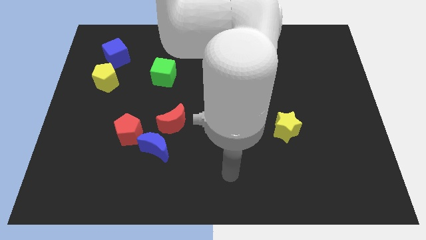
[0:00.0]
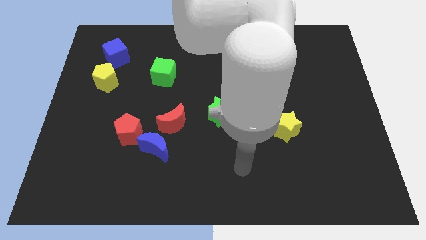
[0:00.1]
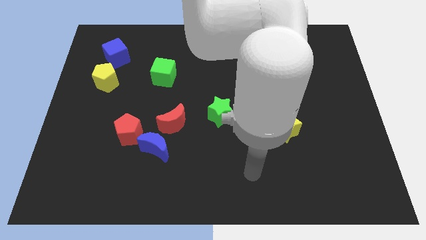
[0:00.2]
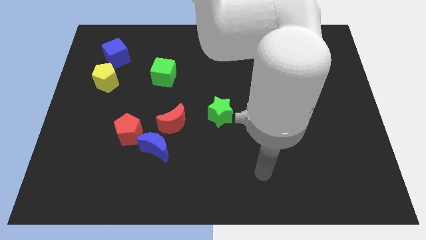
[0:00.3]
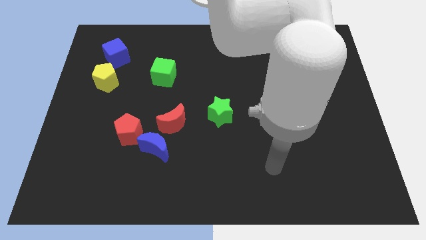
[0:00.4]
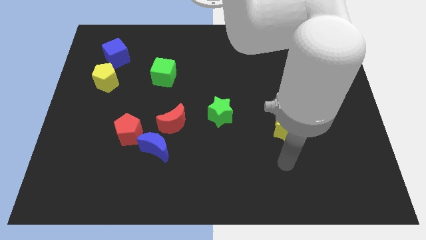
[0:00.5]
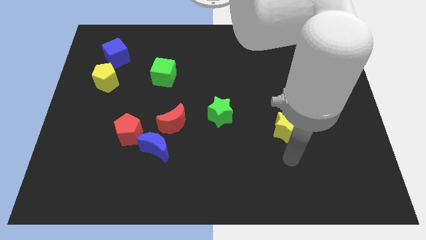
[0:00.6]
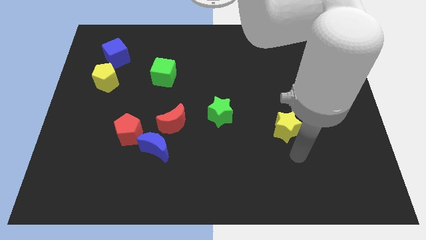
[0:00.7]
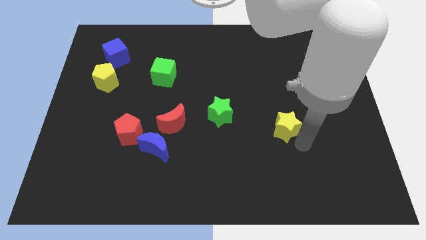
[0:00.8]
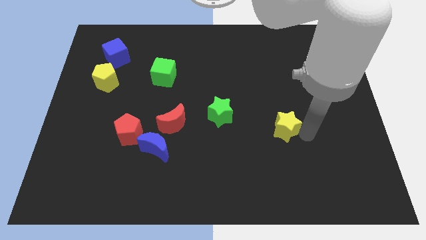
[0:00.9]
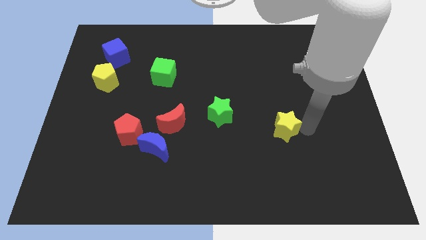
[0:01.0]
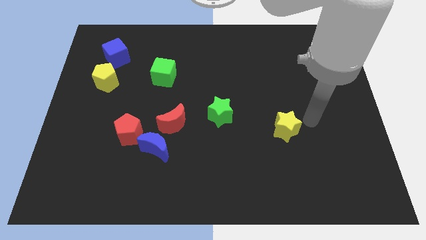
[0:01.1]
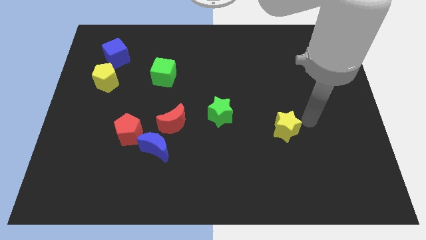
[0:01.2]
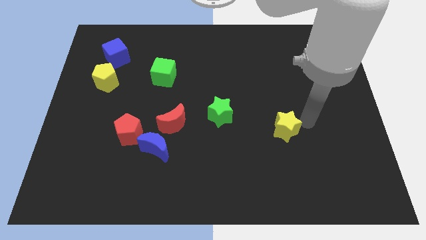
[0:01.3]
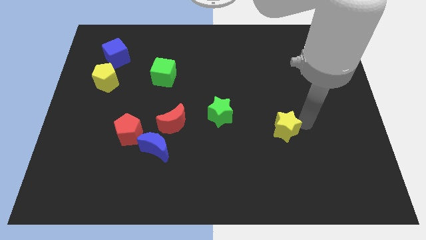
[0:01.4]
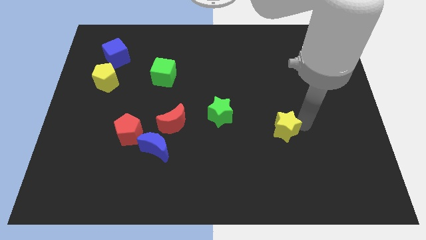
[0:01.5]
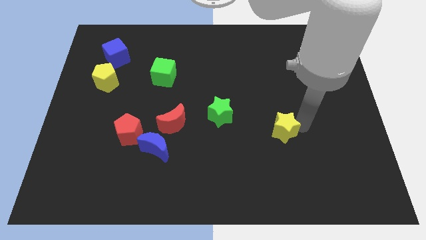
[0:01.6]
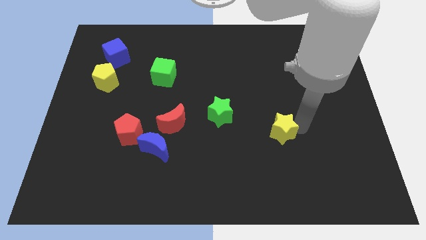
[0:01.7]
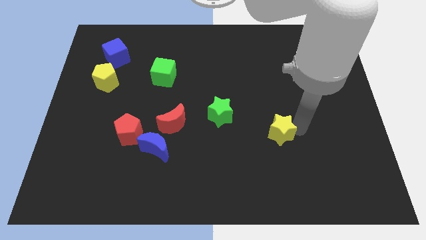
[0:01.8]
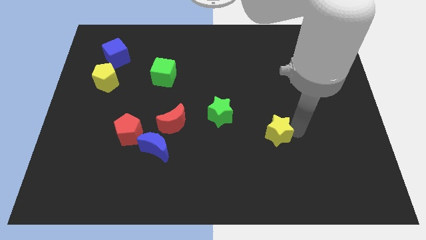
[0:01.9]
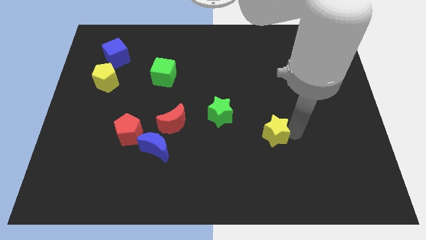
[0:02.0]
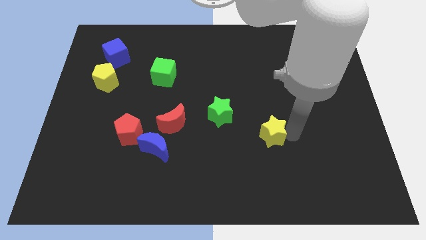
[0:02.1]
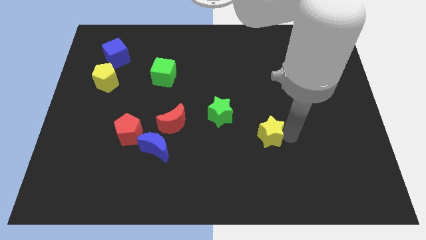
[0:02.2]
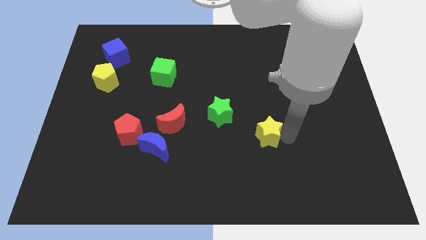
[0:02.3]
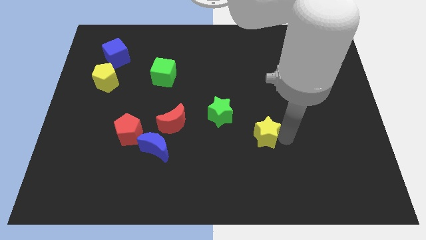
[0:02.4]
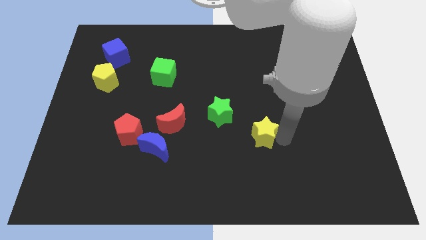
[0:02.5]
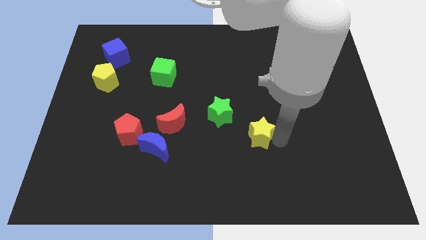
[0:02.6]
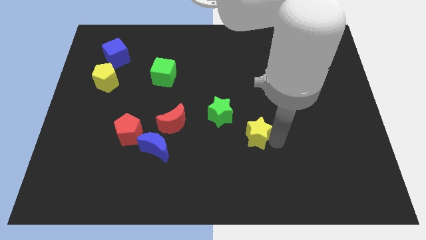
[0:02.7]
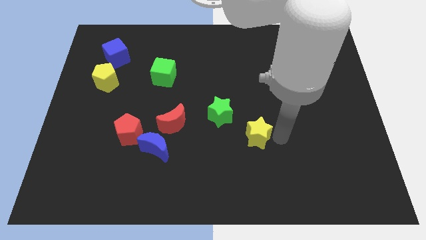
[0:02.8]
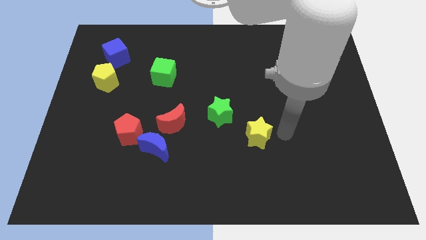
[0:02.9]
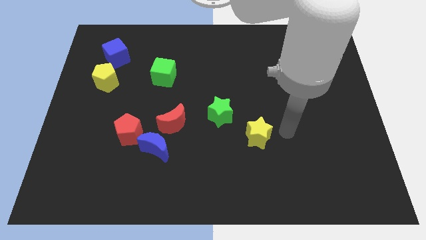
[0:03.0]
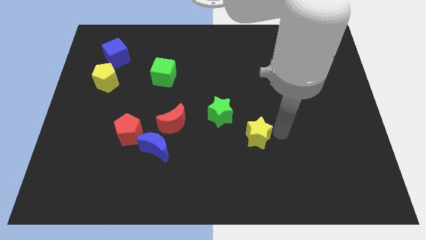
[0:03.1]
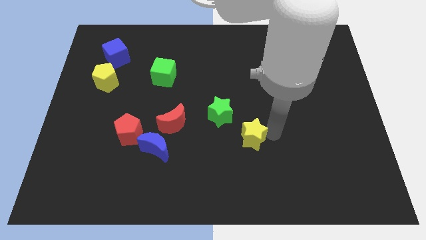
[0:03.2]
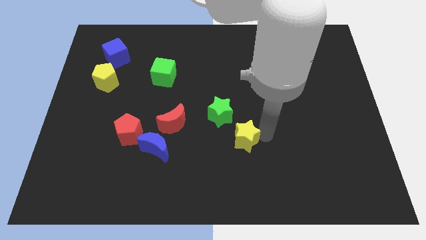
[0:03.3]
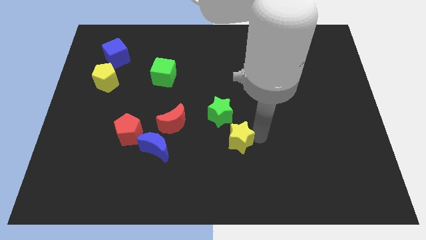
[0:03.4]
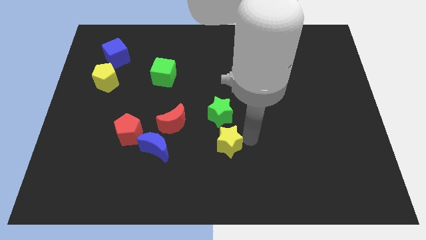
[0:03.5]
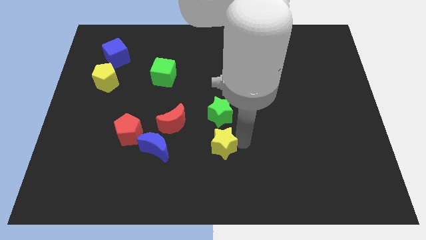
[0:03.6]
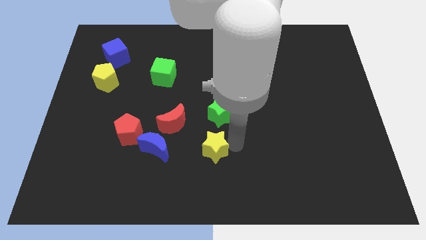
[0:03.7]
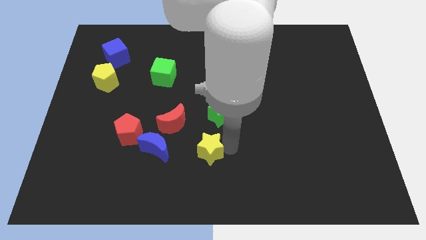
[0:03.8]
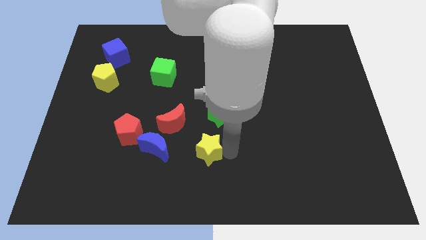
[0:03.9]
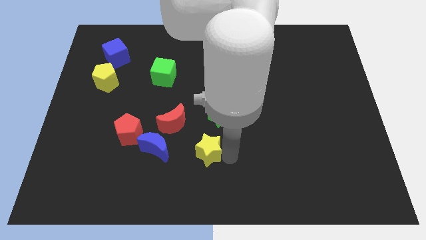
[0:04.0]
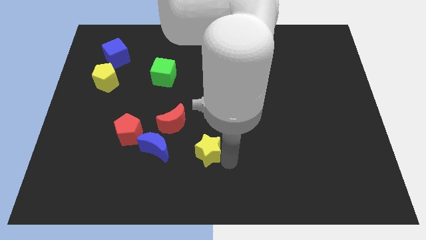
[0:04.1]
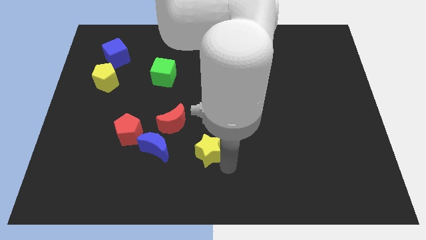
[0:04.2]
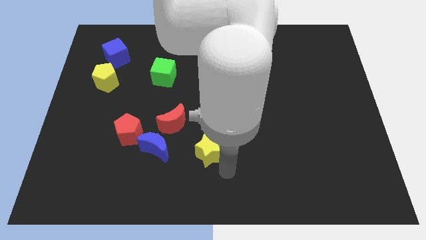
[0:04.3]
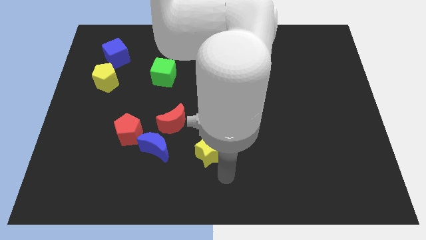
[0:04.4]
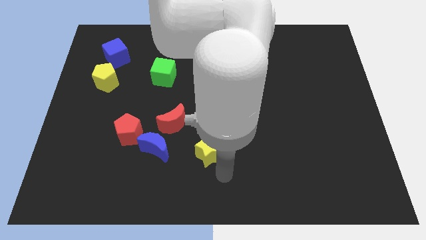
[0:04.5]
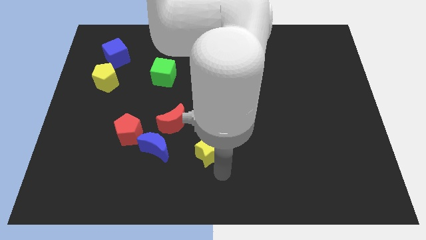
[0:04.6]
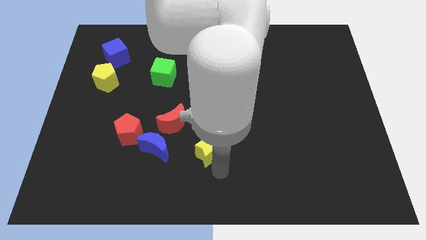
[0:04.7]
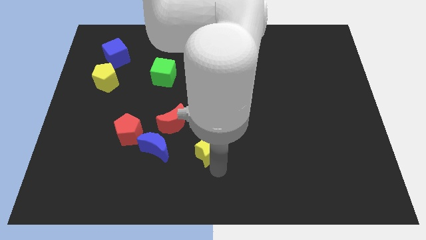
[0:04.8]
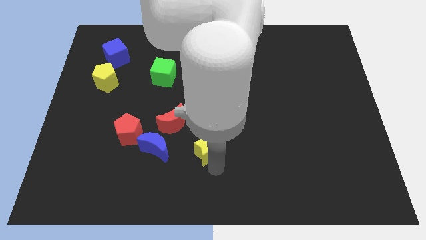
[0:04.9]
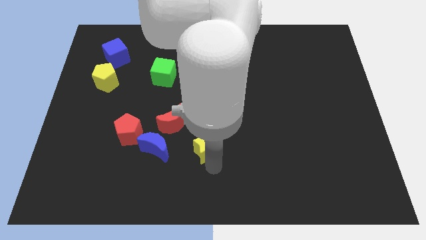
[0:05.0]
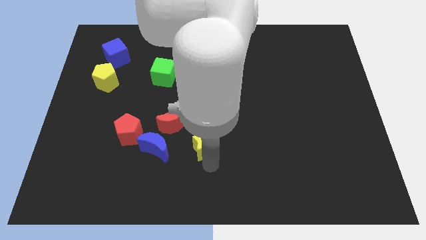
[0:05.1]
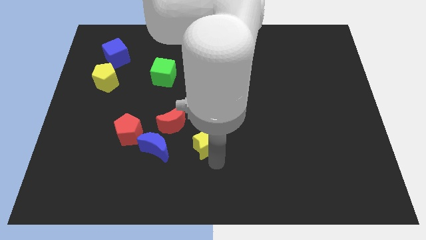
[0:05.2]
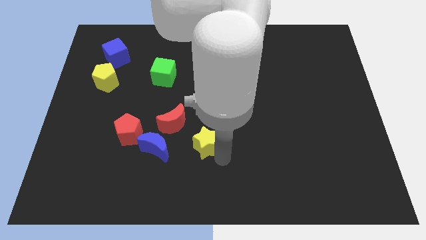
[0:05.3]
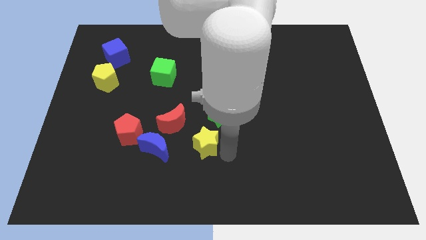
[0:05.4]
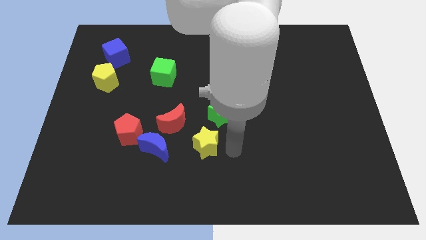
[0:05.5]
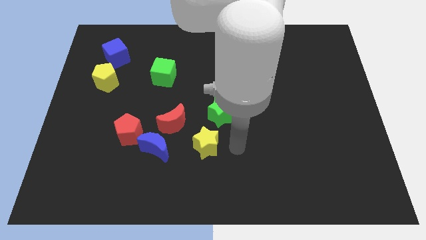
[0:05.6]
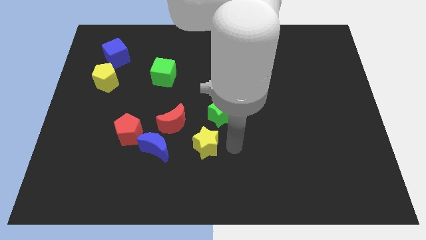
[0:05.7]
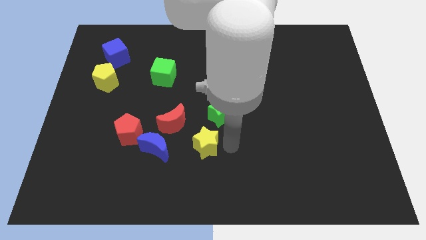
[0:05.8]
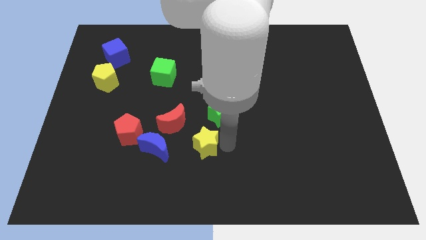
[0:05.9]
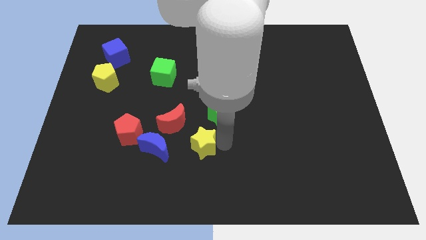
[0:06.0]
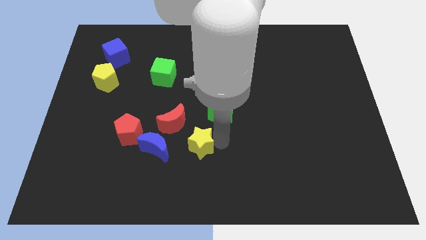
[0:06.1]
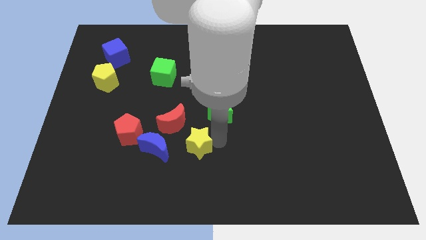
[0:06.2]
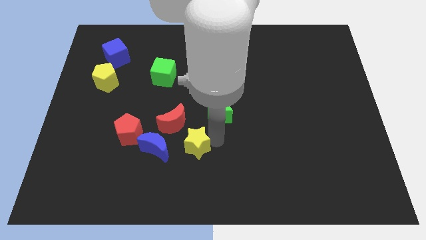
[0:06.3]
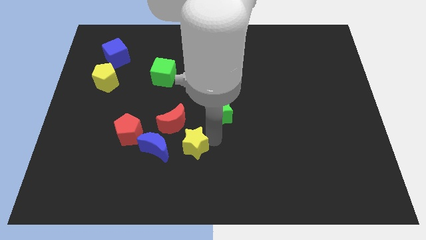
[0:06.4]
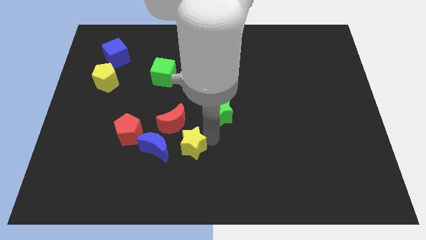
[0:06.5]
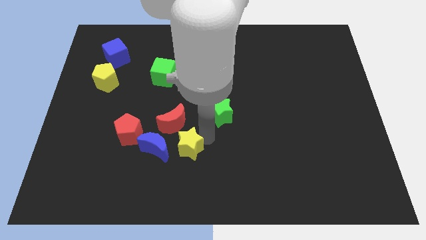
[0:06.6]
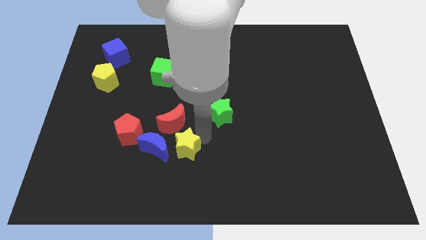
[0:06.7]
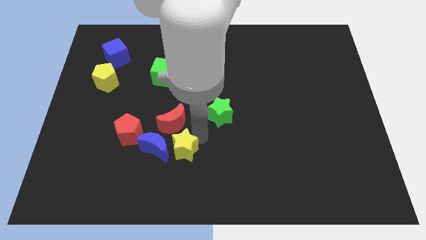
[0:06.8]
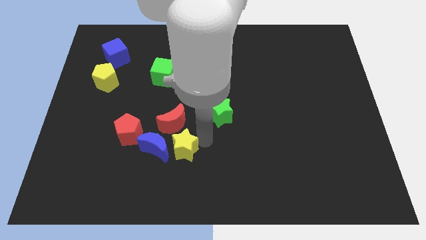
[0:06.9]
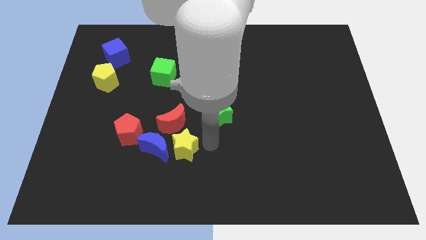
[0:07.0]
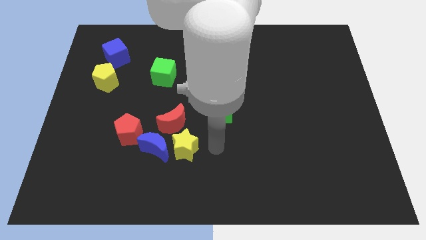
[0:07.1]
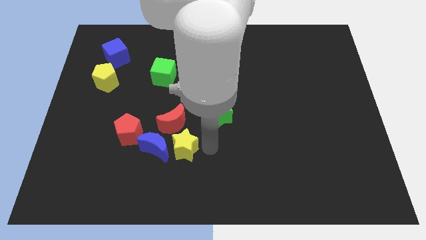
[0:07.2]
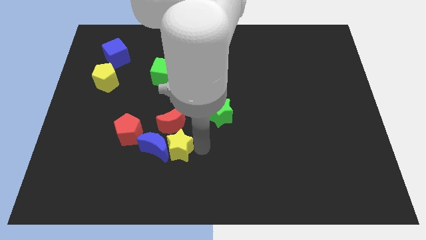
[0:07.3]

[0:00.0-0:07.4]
put the yellow star next to the blue moon
